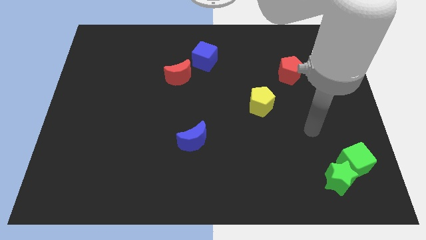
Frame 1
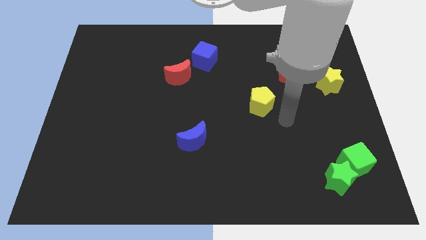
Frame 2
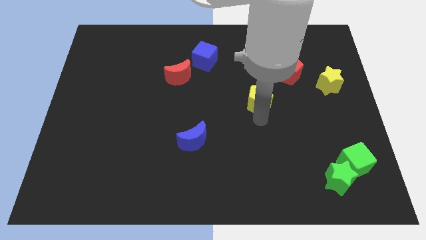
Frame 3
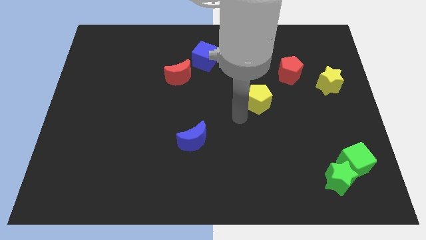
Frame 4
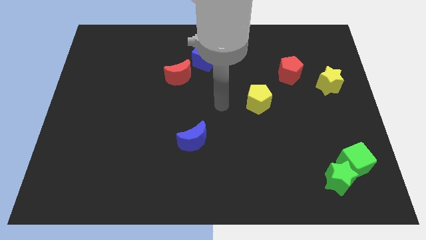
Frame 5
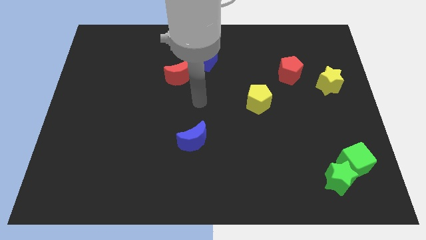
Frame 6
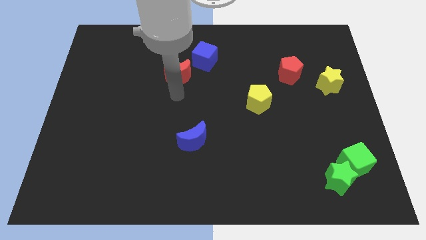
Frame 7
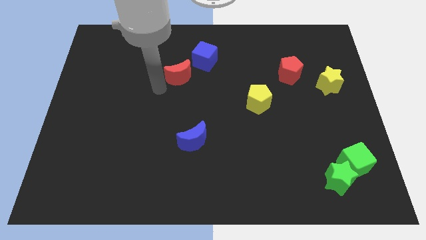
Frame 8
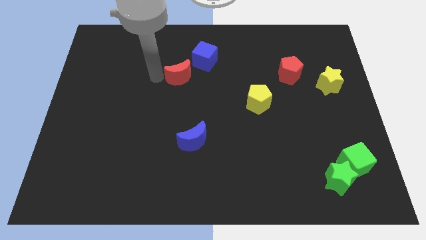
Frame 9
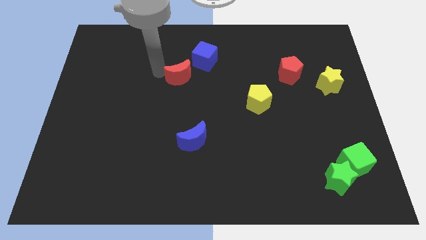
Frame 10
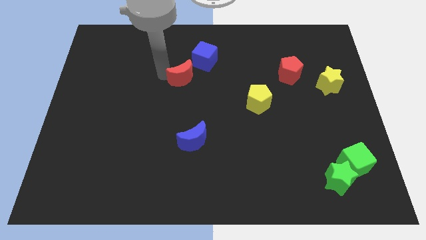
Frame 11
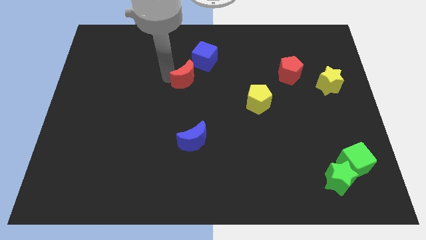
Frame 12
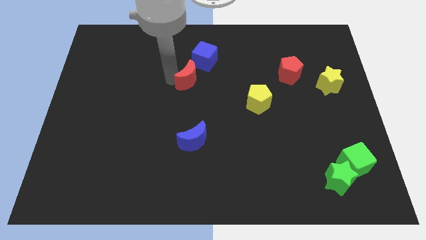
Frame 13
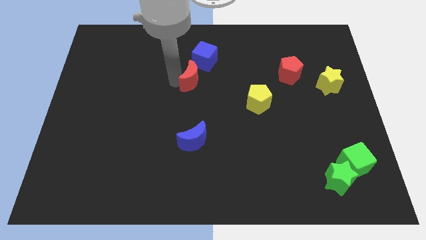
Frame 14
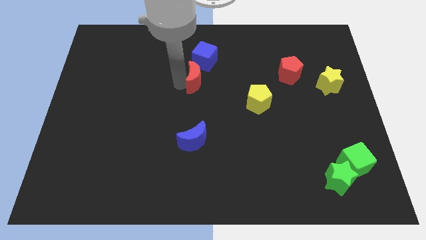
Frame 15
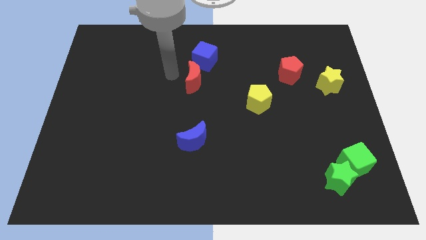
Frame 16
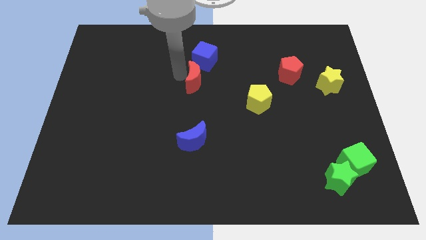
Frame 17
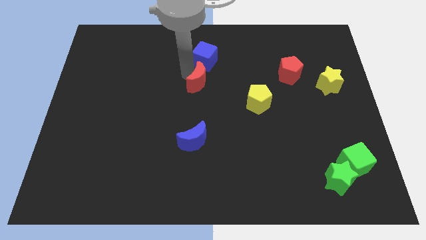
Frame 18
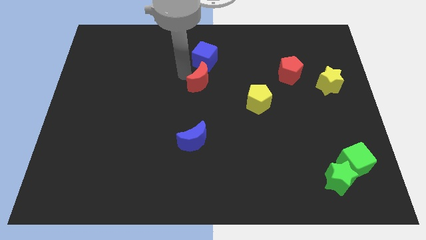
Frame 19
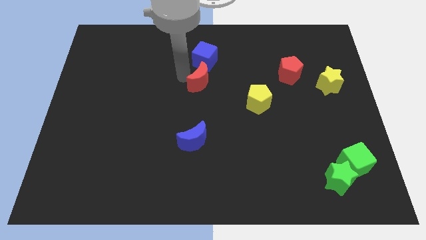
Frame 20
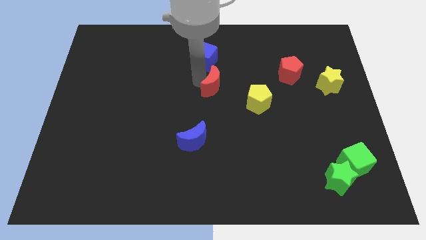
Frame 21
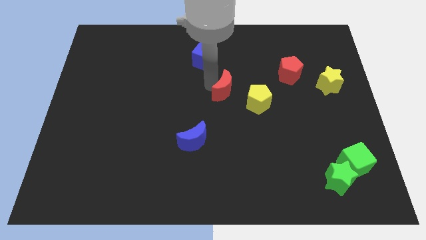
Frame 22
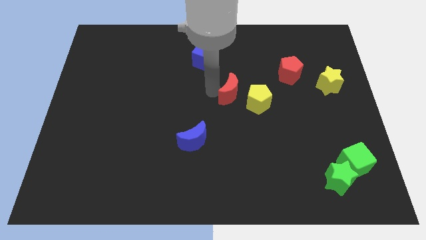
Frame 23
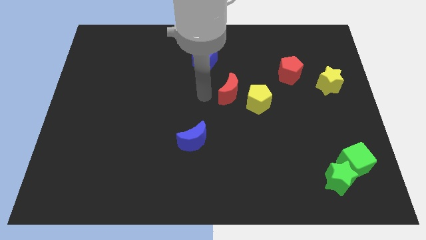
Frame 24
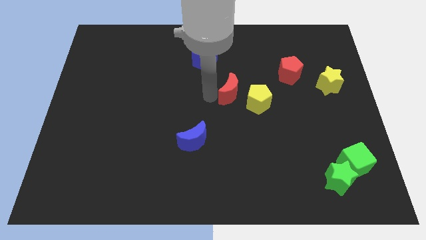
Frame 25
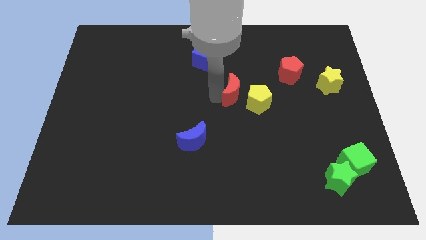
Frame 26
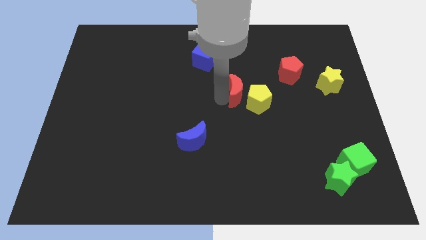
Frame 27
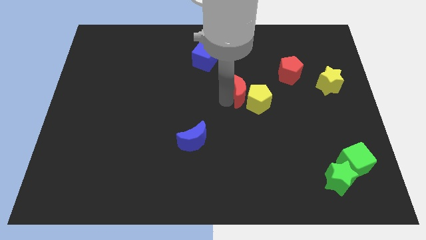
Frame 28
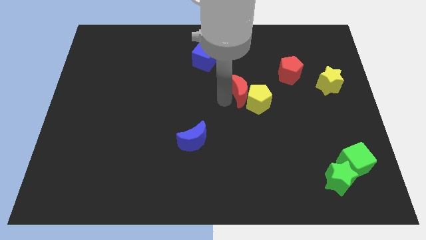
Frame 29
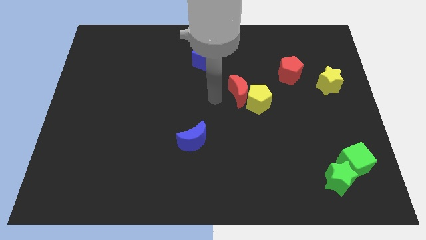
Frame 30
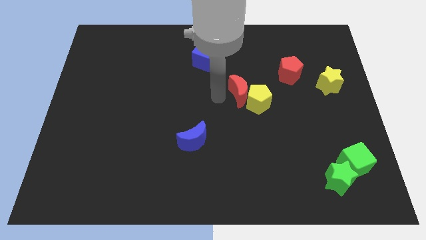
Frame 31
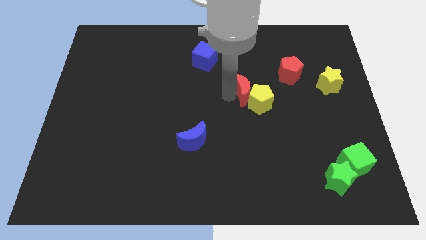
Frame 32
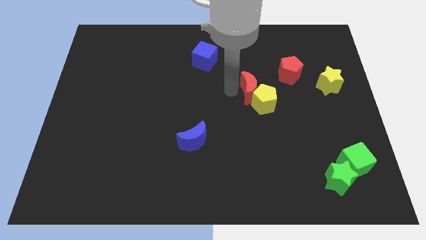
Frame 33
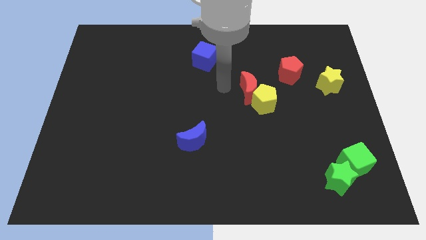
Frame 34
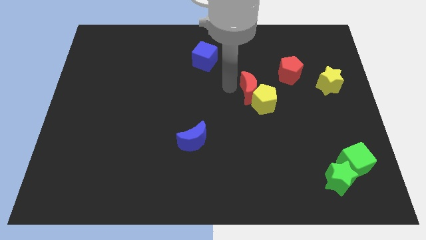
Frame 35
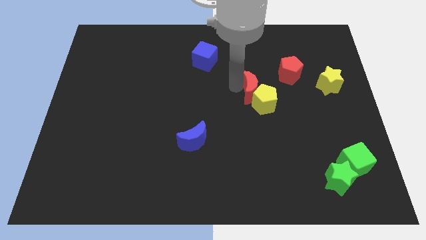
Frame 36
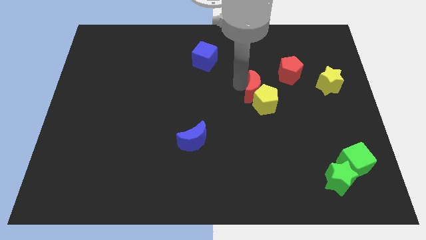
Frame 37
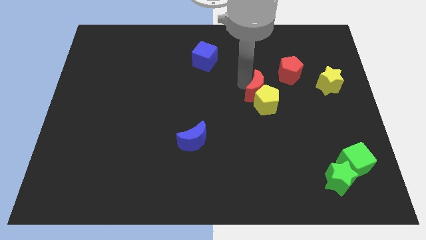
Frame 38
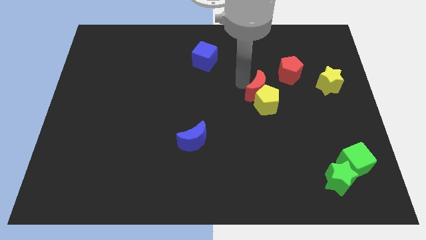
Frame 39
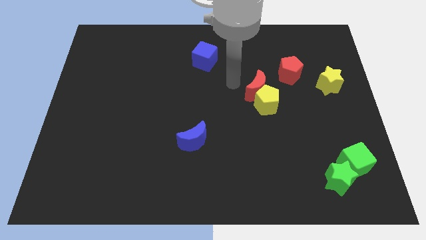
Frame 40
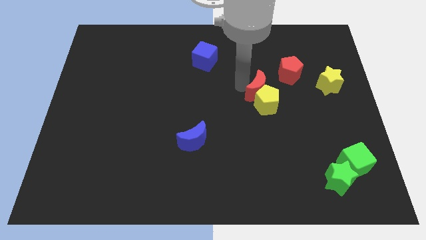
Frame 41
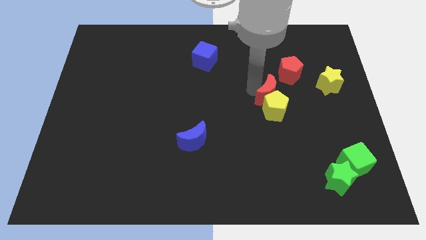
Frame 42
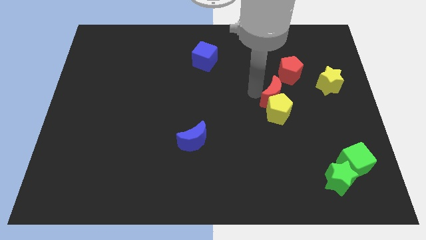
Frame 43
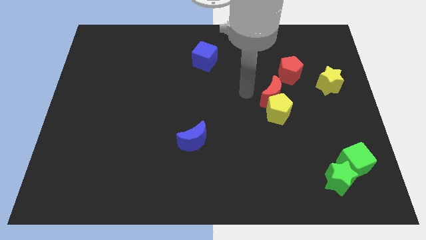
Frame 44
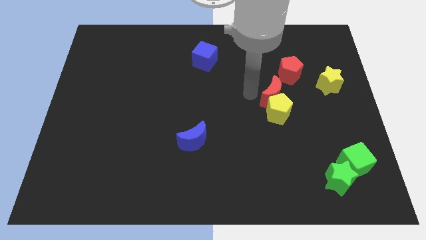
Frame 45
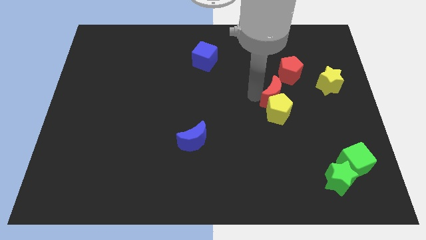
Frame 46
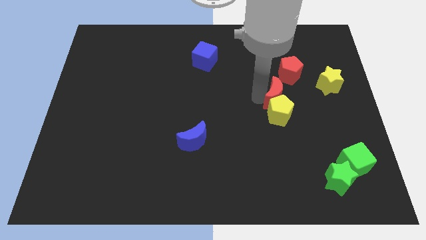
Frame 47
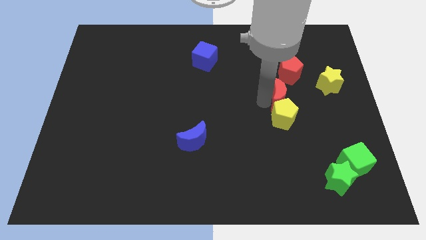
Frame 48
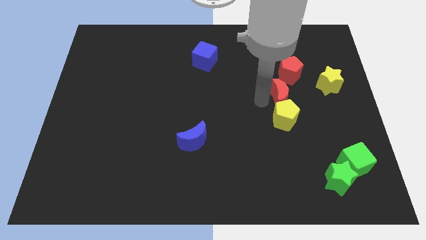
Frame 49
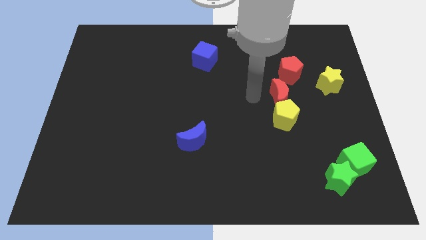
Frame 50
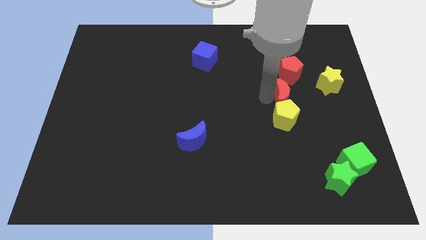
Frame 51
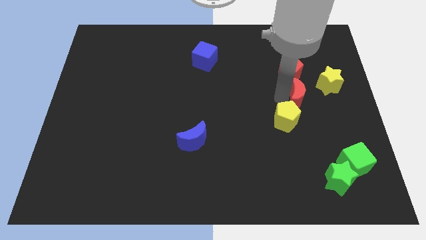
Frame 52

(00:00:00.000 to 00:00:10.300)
put the red moon to the bottom left side of the yellow star

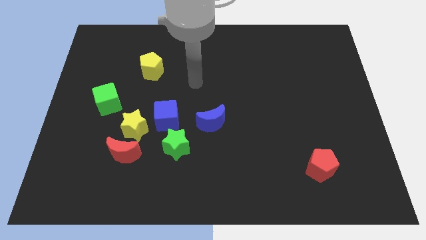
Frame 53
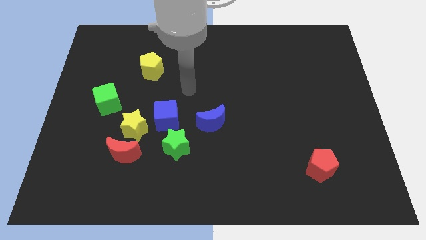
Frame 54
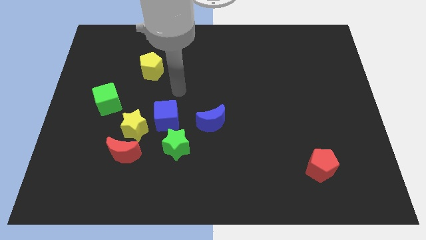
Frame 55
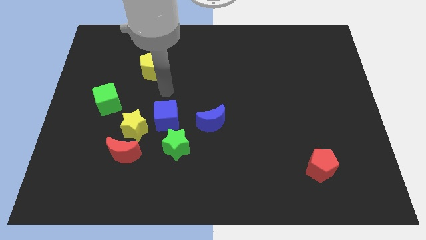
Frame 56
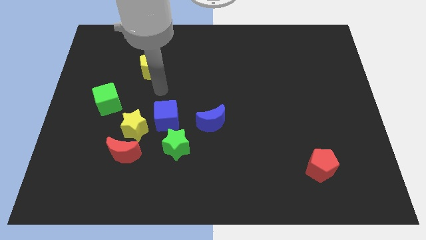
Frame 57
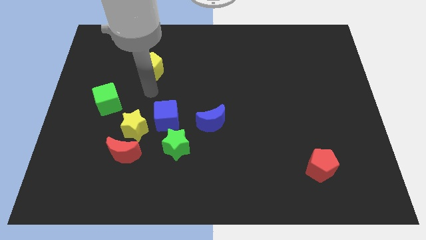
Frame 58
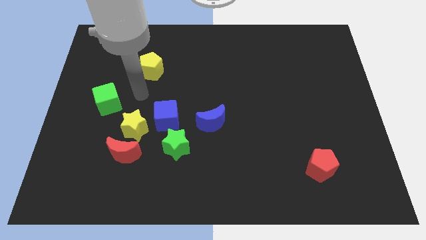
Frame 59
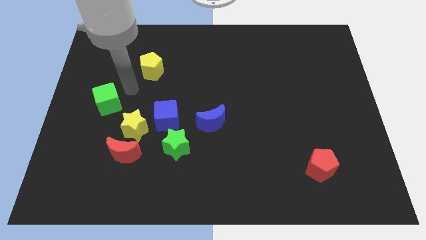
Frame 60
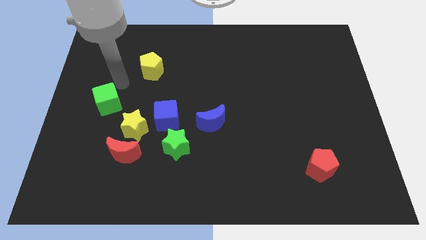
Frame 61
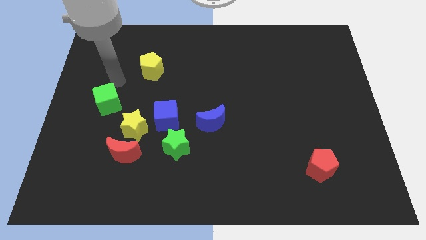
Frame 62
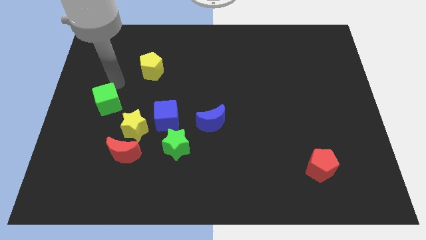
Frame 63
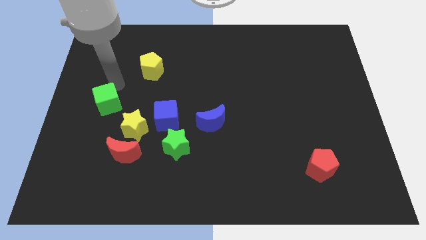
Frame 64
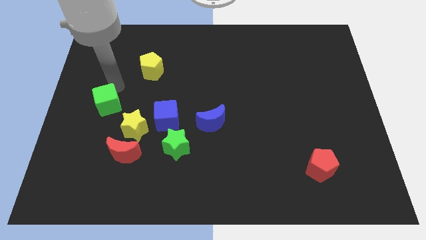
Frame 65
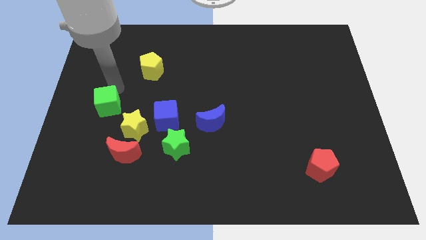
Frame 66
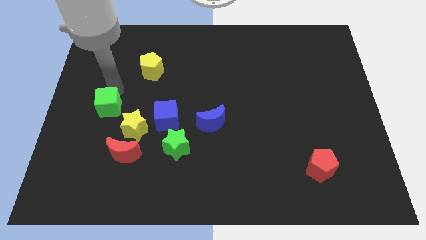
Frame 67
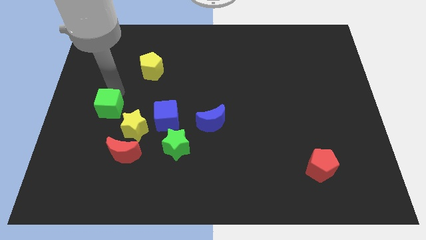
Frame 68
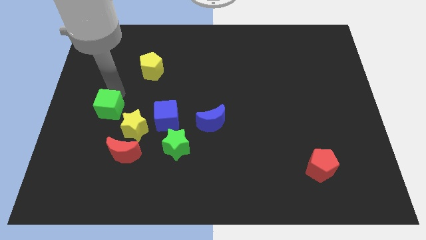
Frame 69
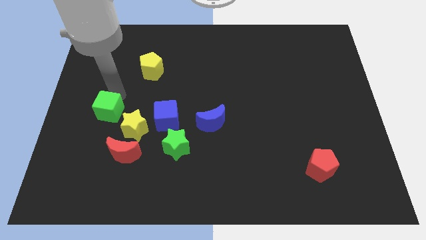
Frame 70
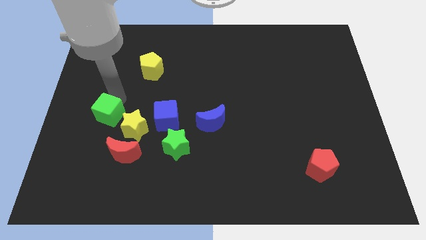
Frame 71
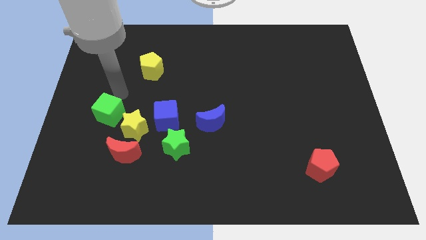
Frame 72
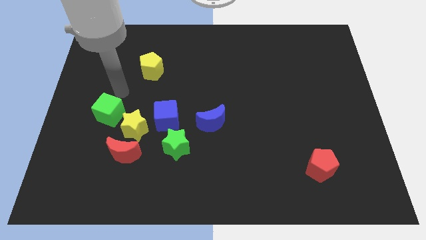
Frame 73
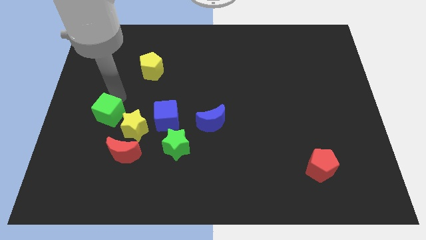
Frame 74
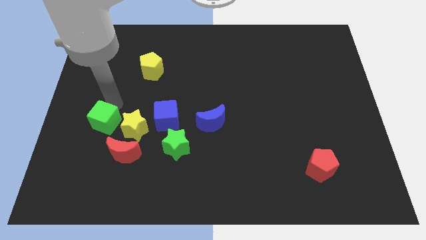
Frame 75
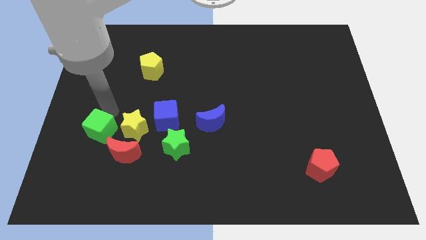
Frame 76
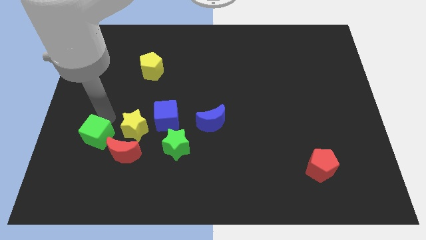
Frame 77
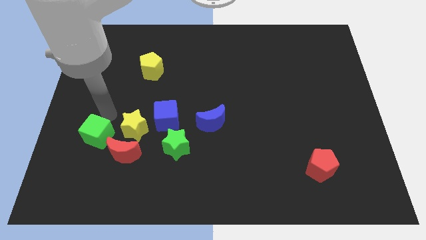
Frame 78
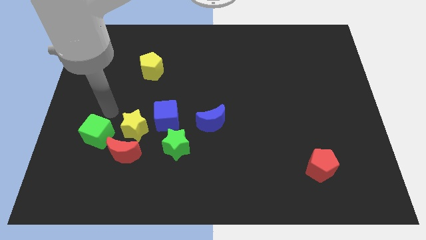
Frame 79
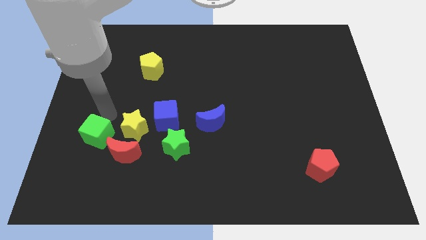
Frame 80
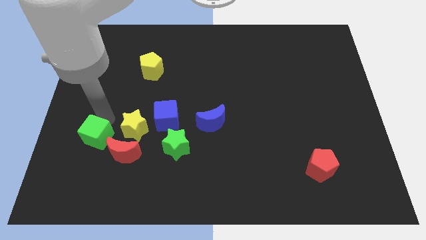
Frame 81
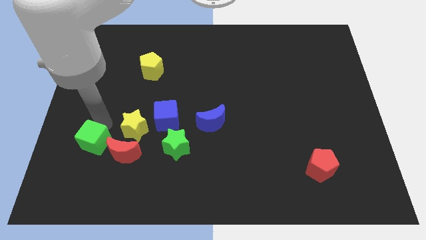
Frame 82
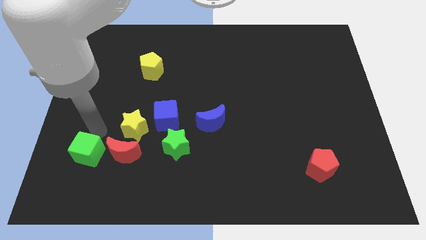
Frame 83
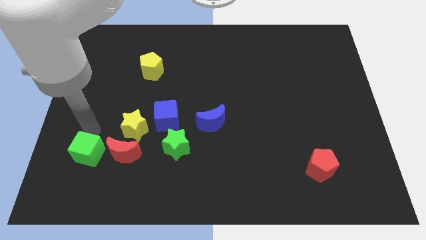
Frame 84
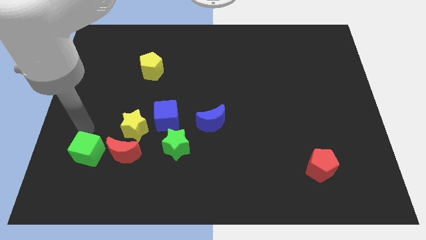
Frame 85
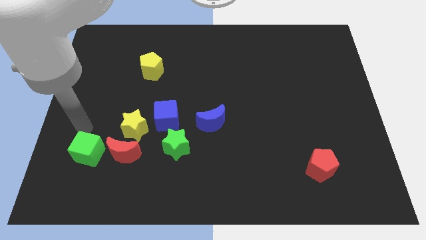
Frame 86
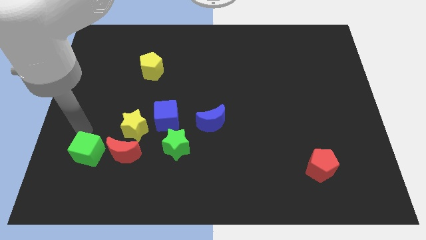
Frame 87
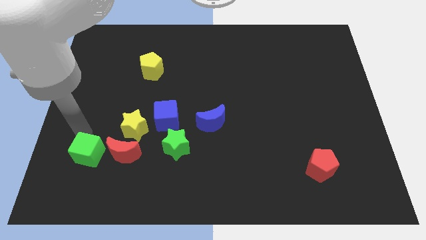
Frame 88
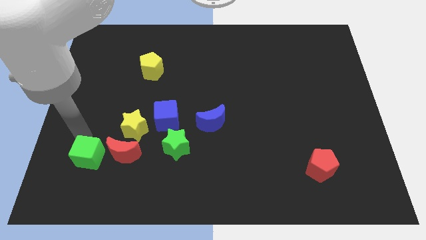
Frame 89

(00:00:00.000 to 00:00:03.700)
push the green cube to the bottom left side of the red moon
